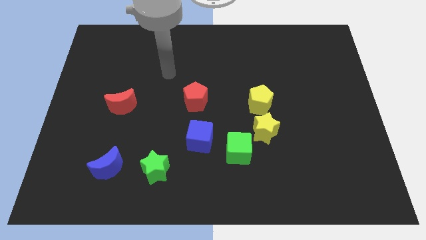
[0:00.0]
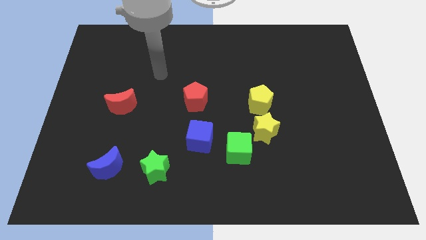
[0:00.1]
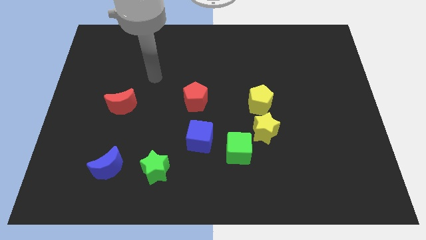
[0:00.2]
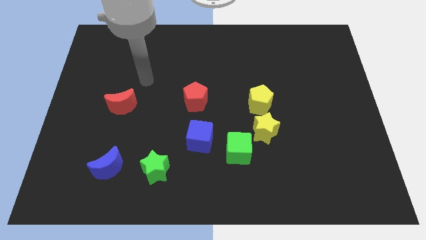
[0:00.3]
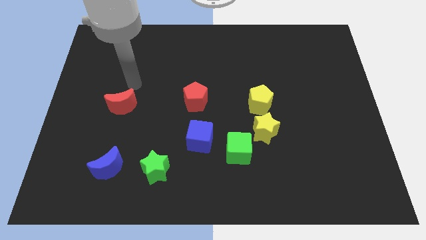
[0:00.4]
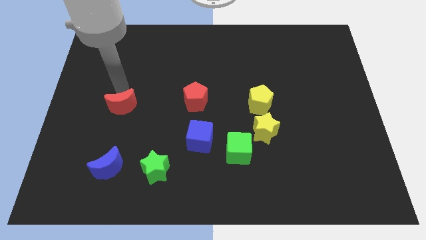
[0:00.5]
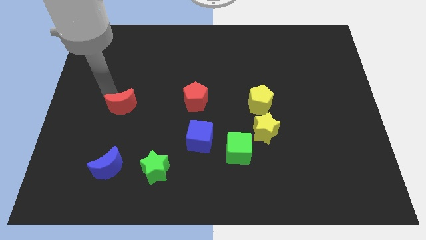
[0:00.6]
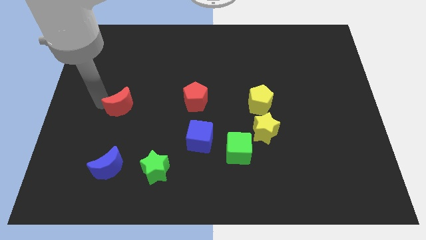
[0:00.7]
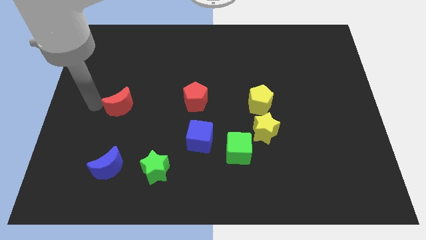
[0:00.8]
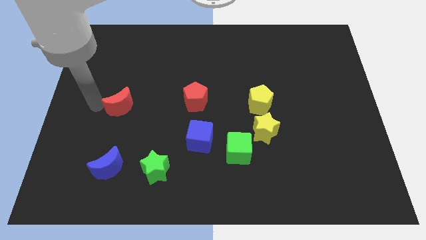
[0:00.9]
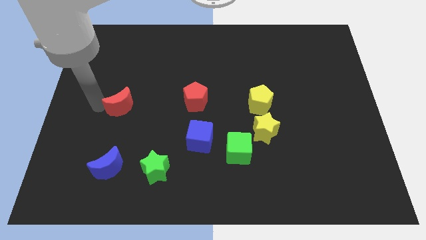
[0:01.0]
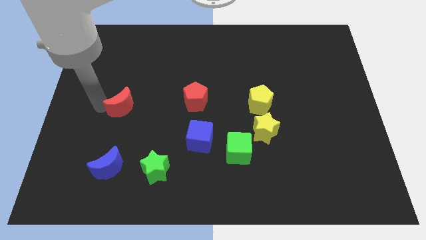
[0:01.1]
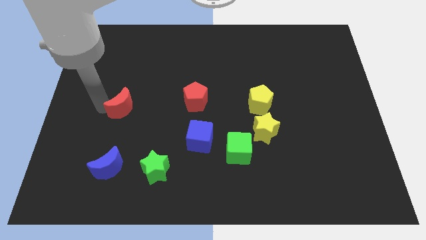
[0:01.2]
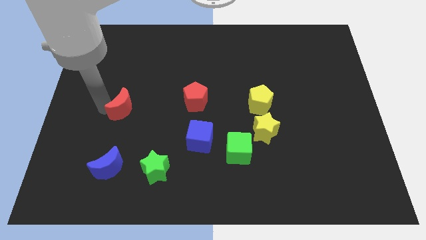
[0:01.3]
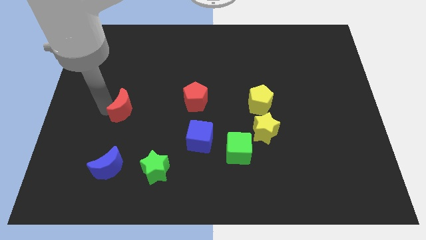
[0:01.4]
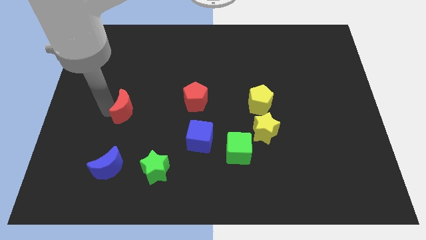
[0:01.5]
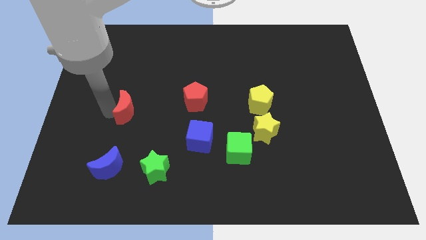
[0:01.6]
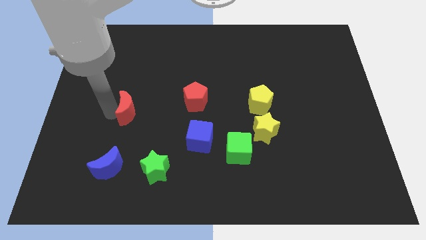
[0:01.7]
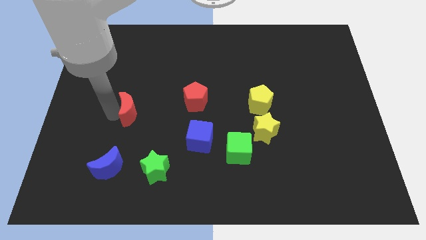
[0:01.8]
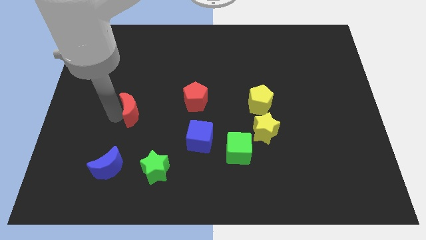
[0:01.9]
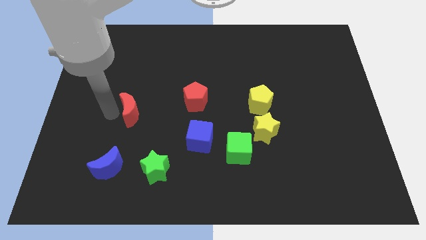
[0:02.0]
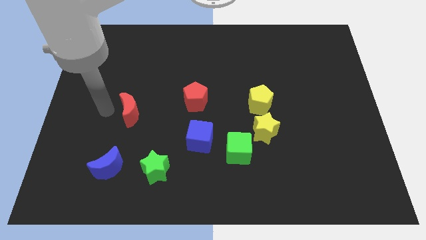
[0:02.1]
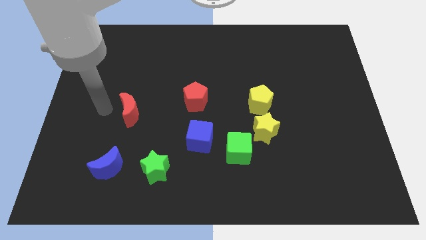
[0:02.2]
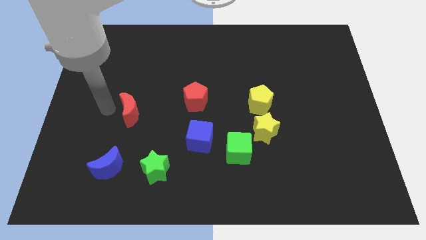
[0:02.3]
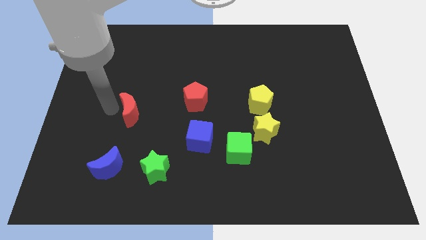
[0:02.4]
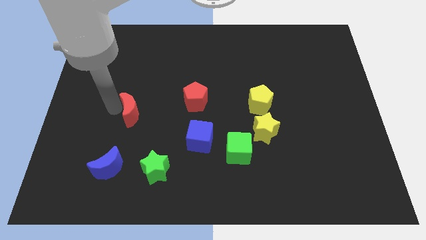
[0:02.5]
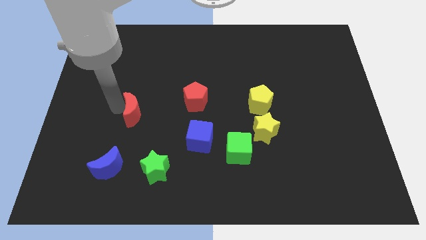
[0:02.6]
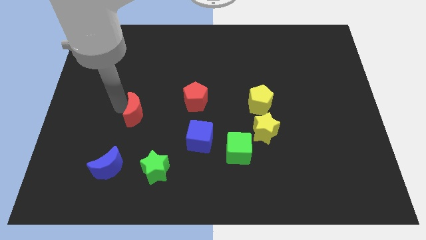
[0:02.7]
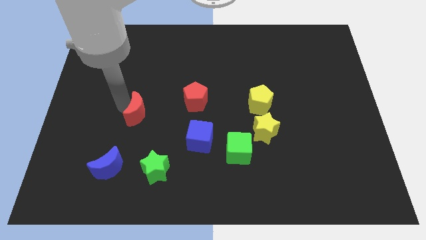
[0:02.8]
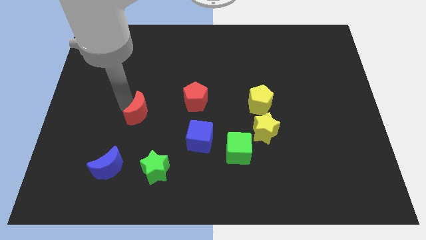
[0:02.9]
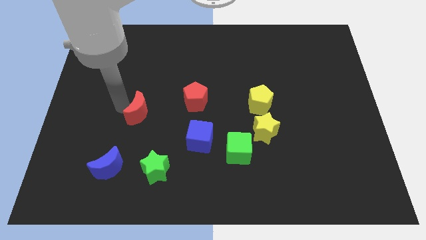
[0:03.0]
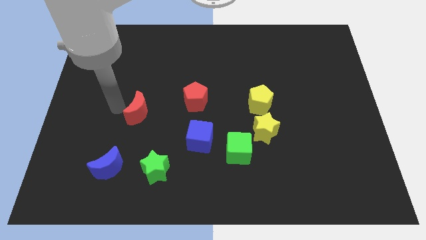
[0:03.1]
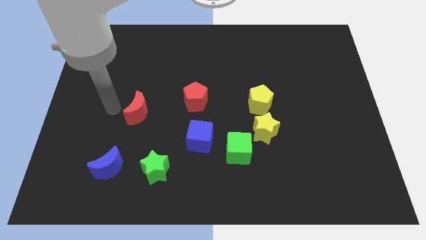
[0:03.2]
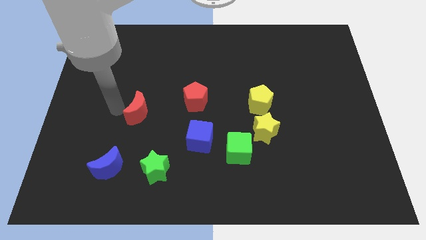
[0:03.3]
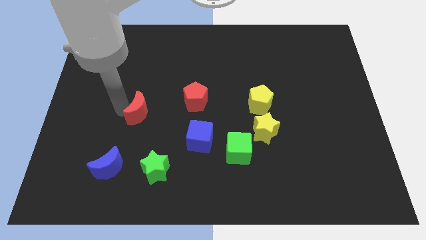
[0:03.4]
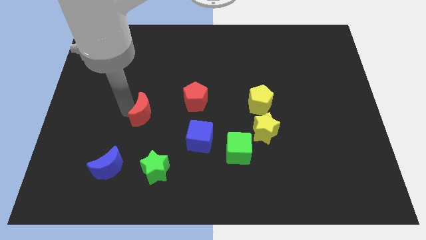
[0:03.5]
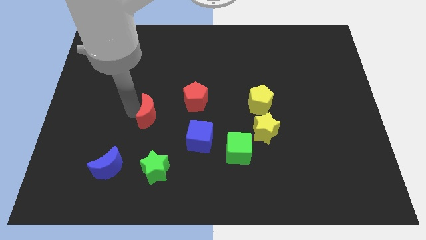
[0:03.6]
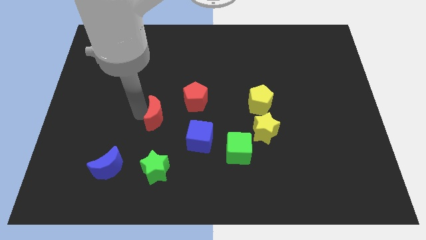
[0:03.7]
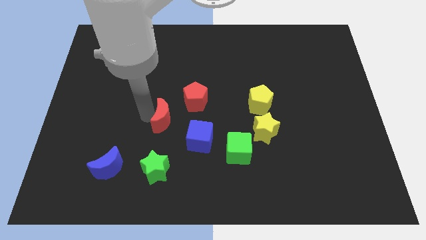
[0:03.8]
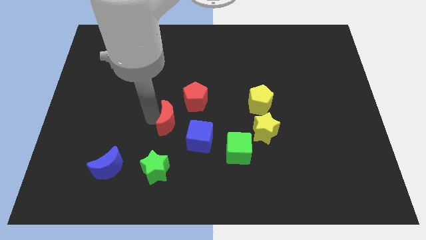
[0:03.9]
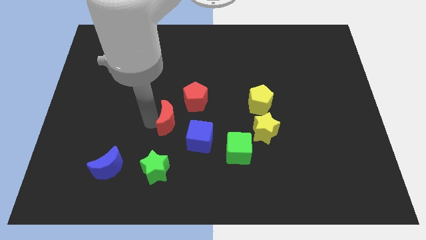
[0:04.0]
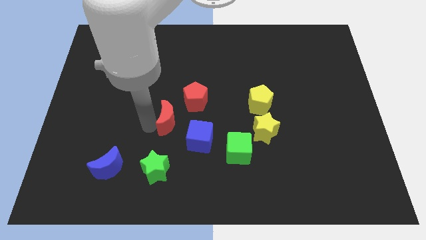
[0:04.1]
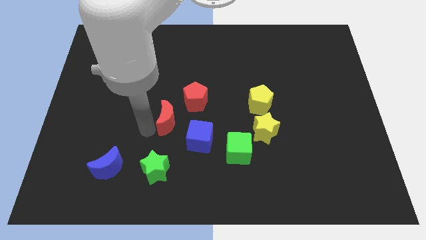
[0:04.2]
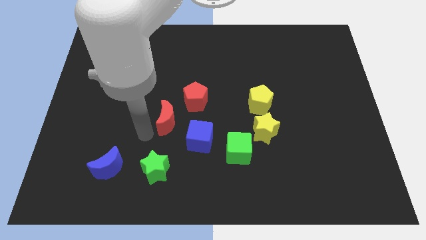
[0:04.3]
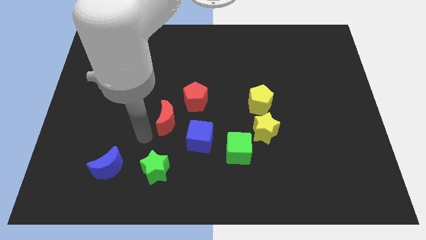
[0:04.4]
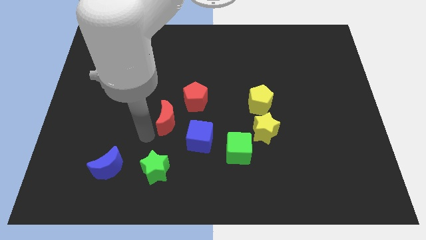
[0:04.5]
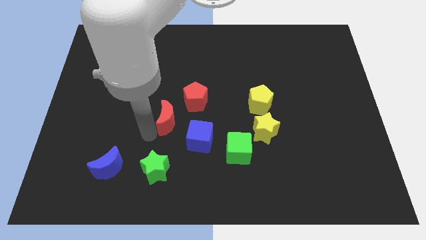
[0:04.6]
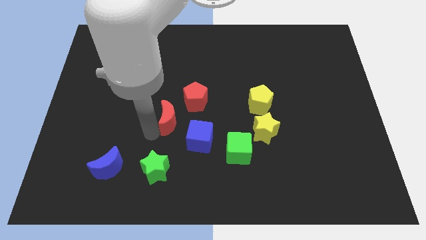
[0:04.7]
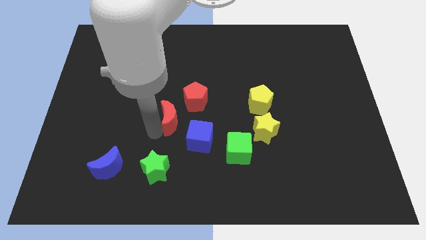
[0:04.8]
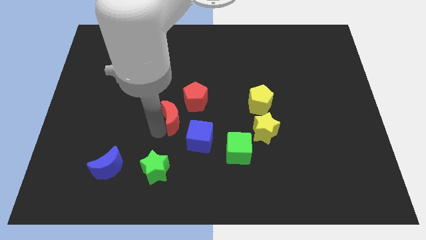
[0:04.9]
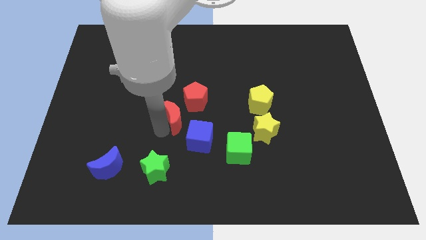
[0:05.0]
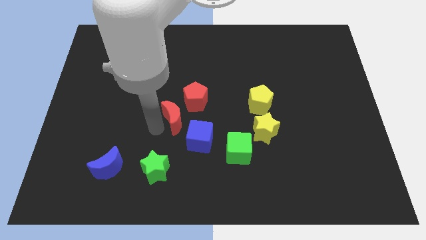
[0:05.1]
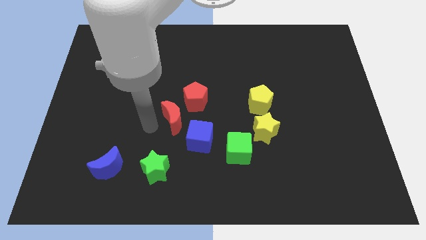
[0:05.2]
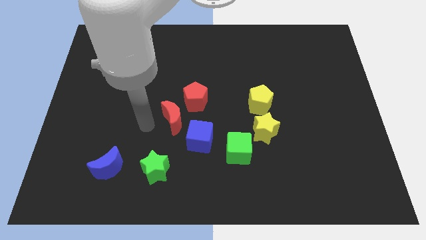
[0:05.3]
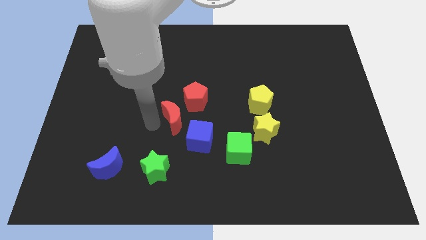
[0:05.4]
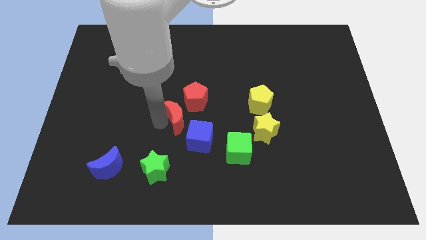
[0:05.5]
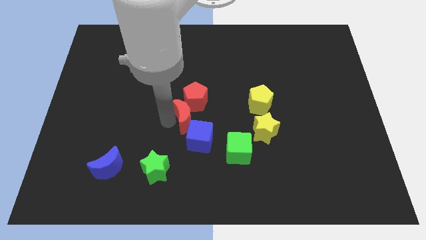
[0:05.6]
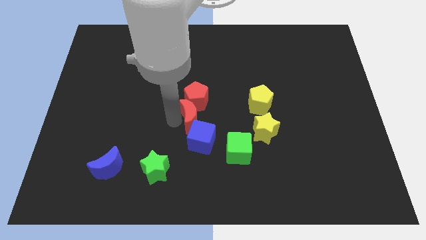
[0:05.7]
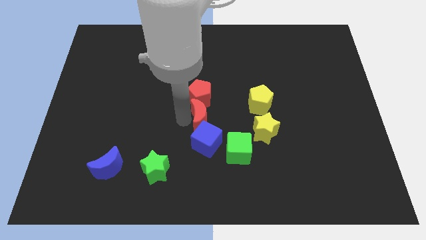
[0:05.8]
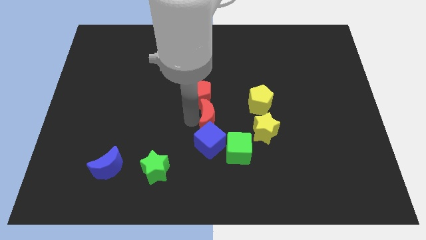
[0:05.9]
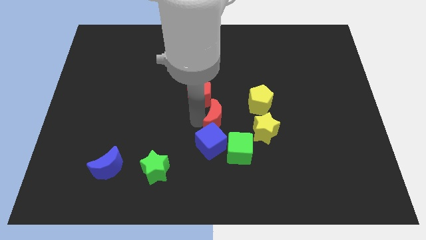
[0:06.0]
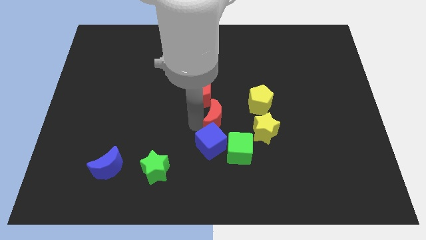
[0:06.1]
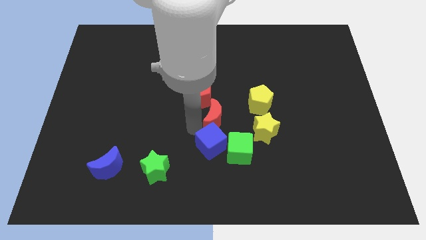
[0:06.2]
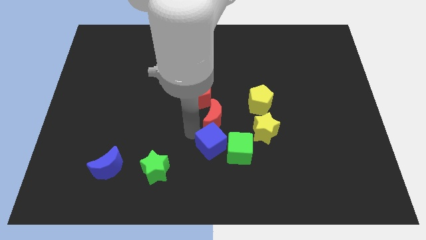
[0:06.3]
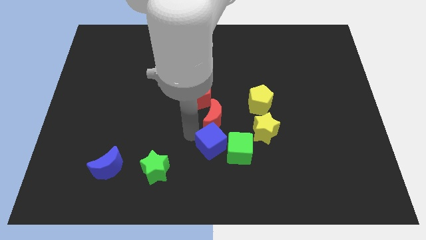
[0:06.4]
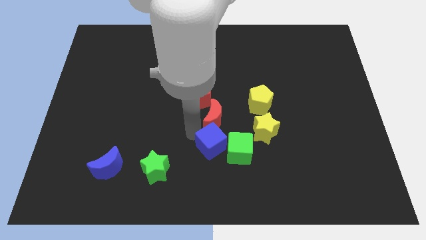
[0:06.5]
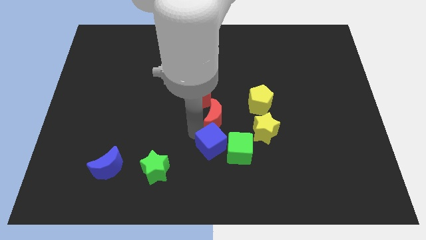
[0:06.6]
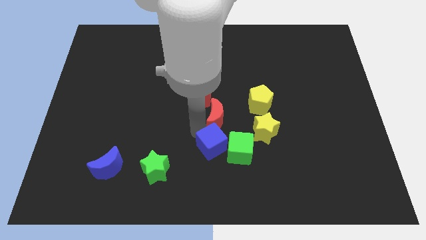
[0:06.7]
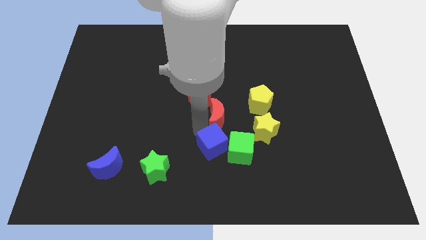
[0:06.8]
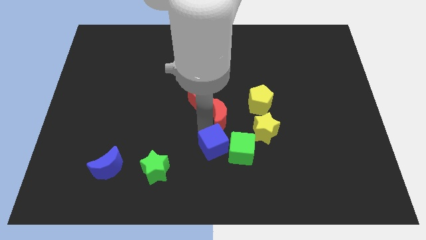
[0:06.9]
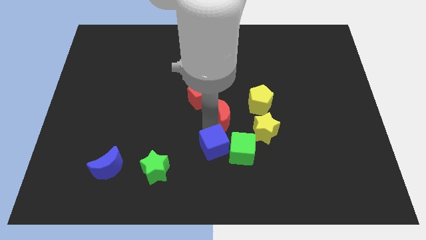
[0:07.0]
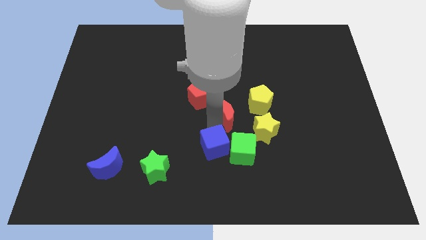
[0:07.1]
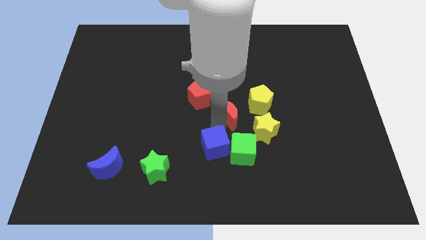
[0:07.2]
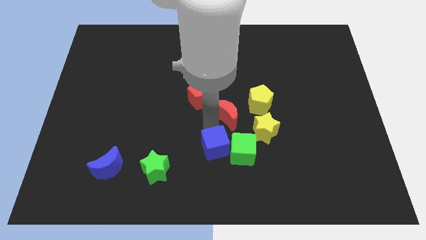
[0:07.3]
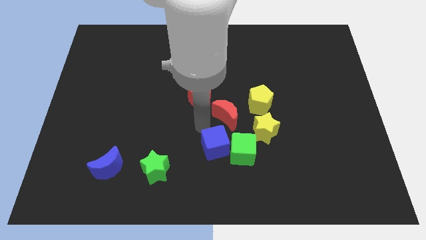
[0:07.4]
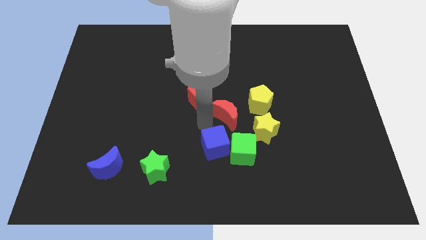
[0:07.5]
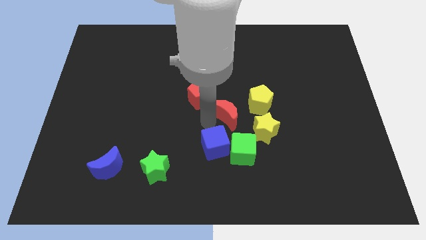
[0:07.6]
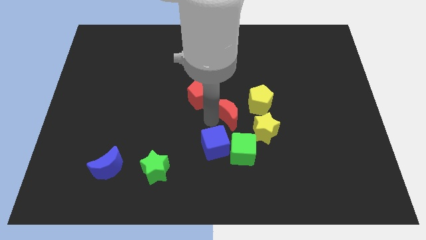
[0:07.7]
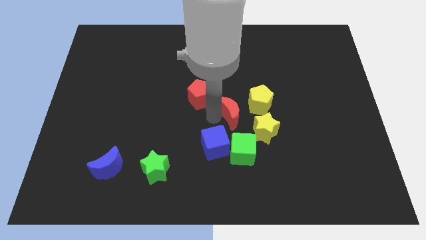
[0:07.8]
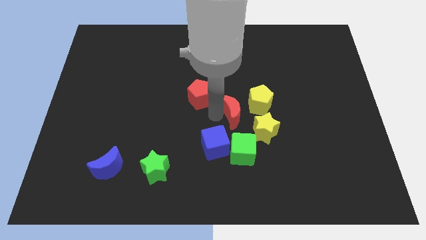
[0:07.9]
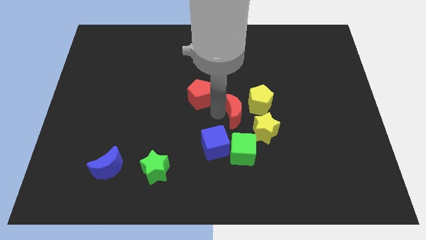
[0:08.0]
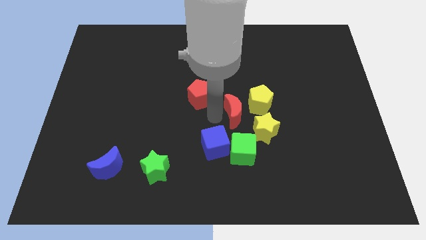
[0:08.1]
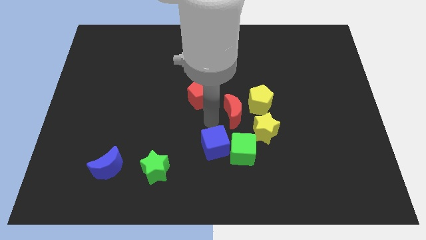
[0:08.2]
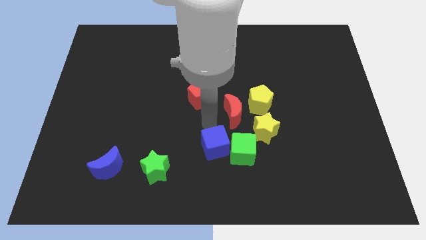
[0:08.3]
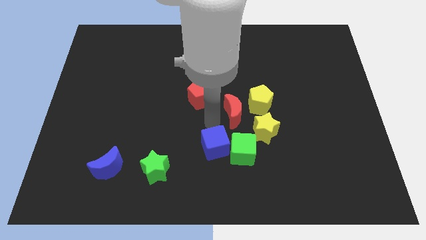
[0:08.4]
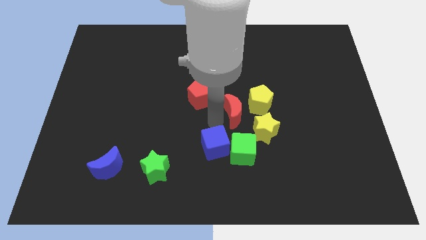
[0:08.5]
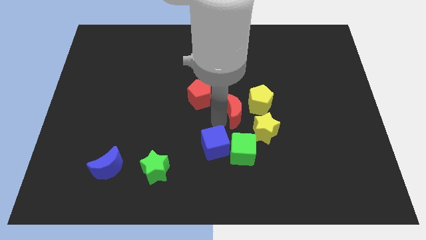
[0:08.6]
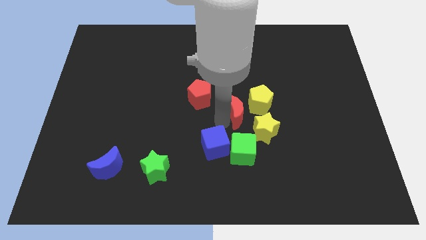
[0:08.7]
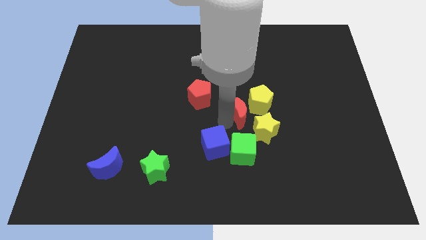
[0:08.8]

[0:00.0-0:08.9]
put the red moon close to the yellow pentagon
